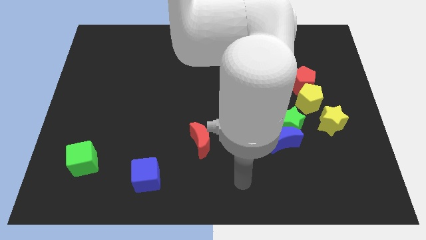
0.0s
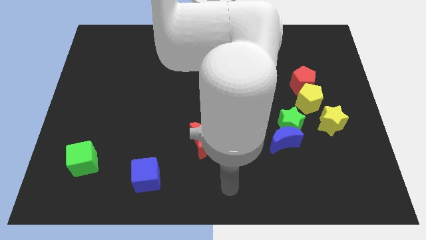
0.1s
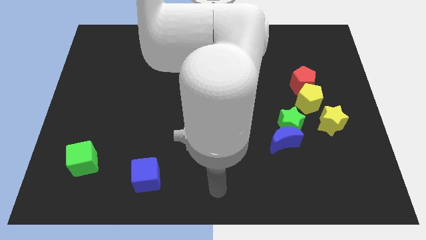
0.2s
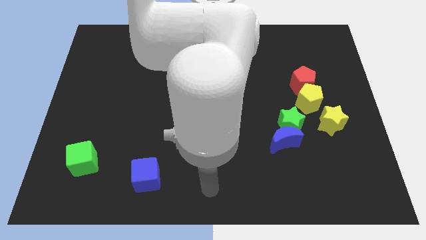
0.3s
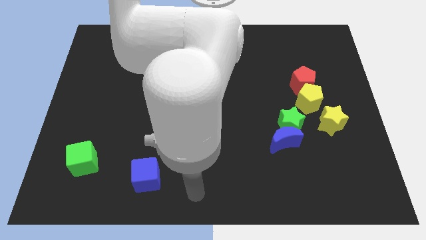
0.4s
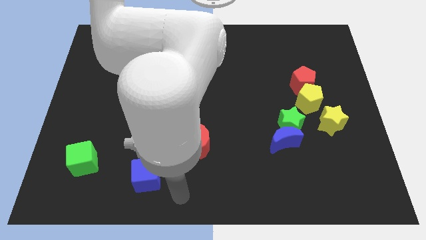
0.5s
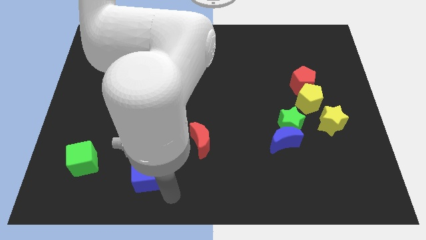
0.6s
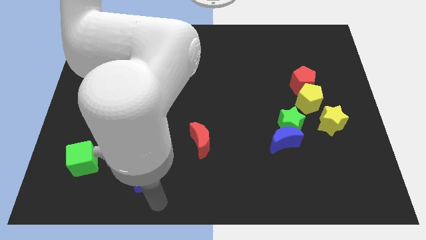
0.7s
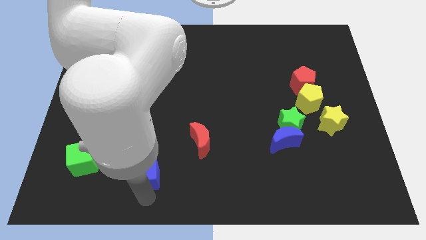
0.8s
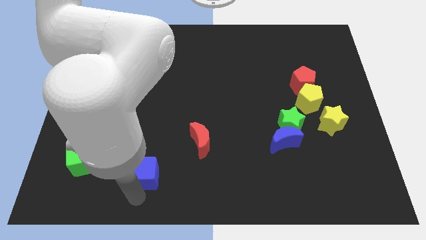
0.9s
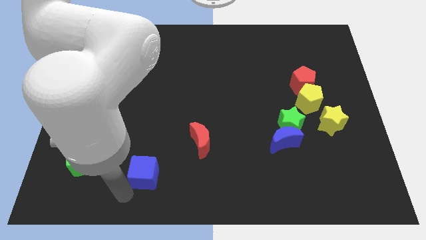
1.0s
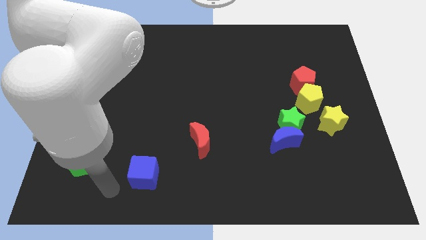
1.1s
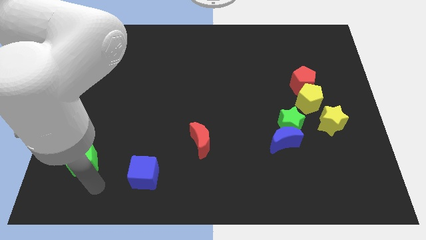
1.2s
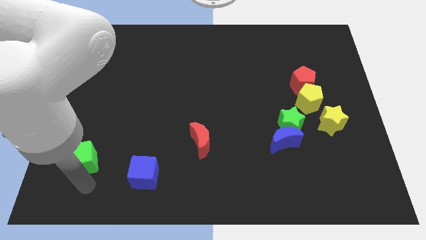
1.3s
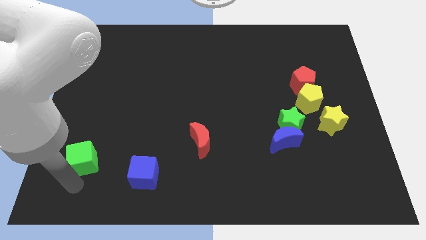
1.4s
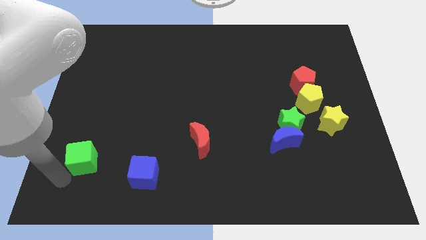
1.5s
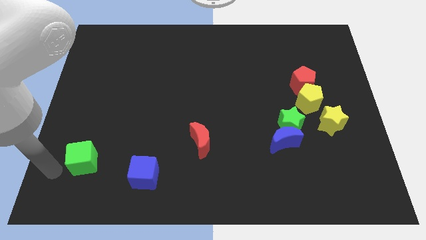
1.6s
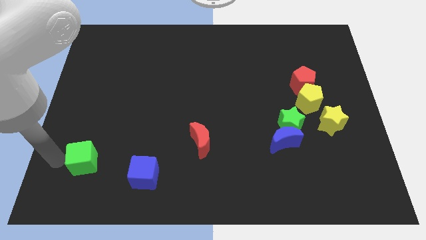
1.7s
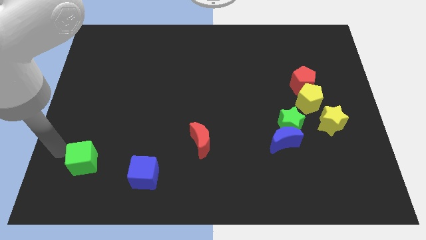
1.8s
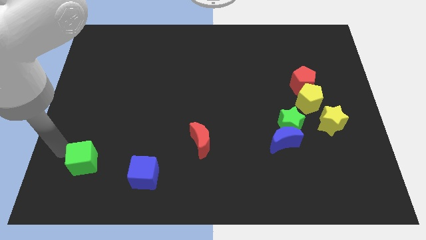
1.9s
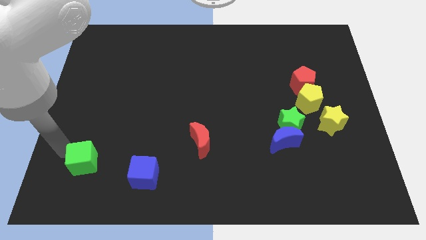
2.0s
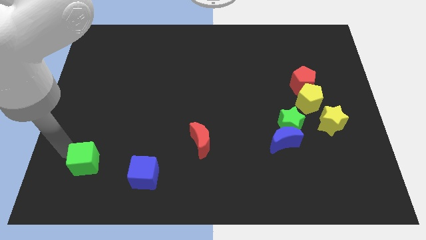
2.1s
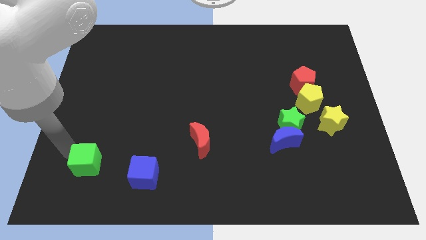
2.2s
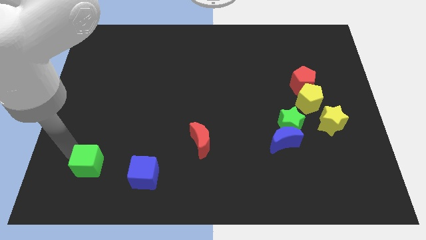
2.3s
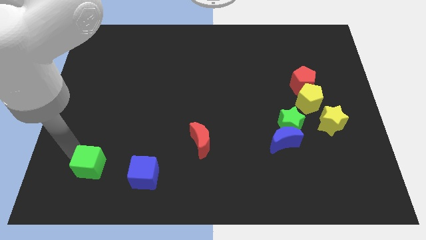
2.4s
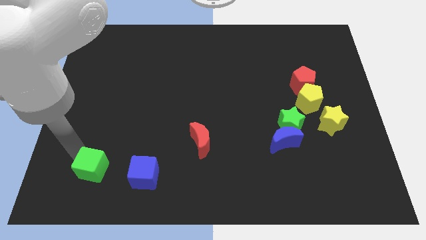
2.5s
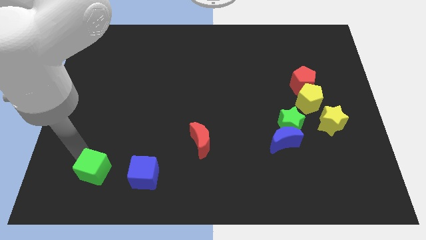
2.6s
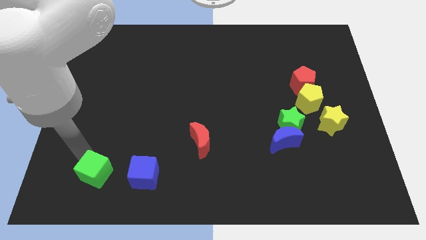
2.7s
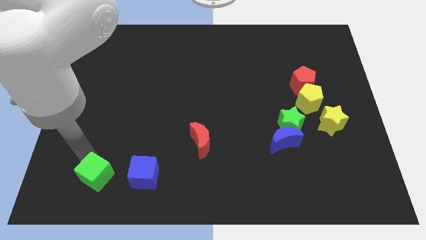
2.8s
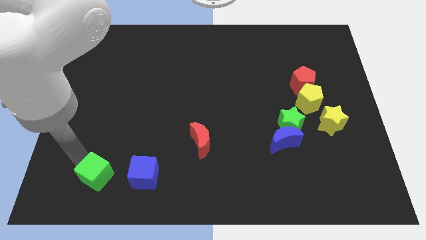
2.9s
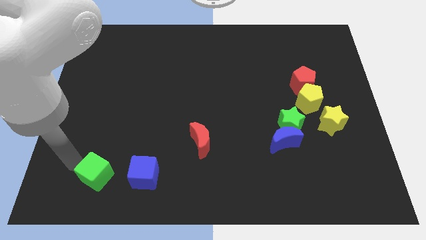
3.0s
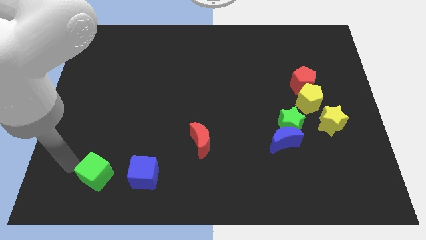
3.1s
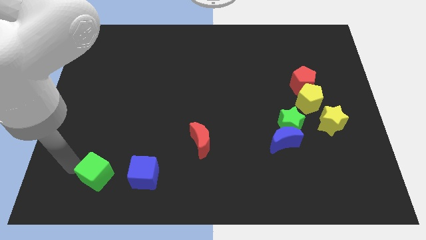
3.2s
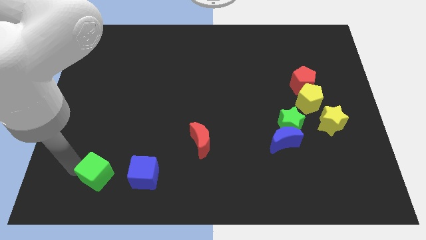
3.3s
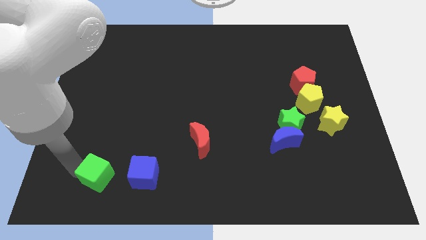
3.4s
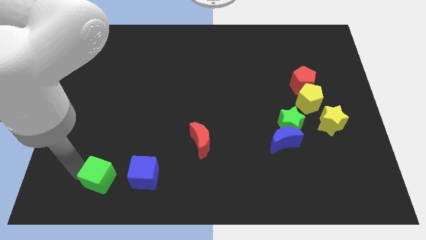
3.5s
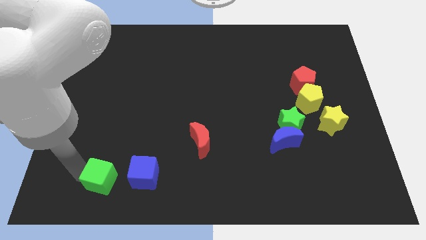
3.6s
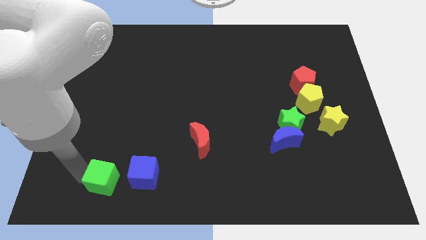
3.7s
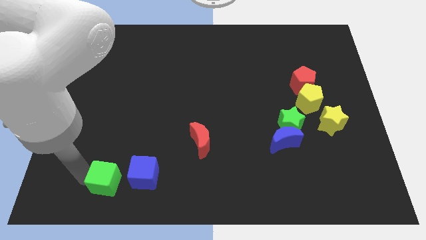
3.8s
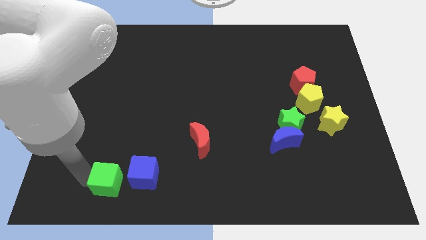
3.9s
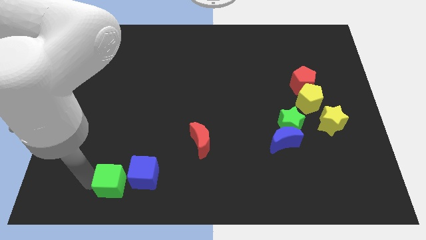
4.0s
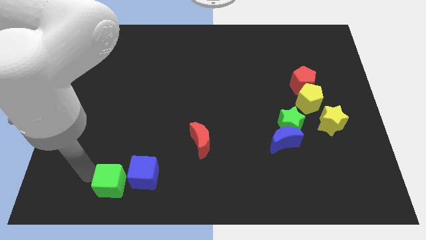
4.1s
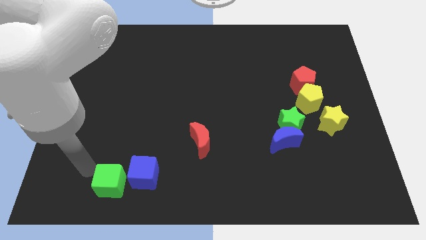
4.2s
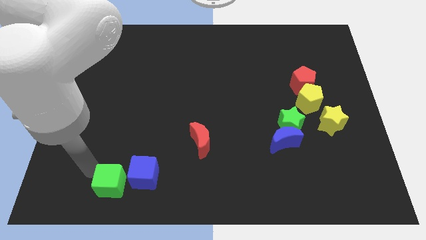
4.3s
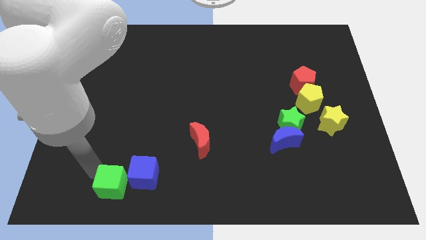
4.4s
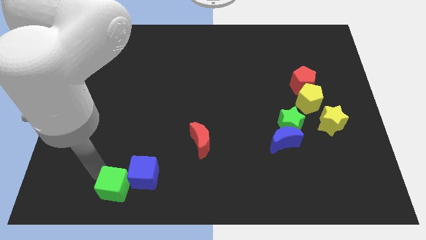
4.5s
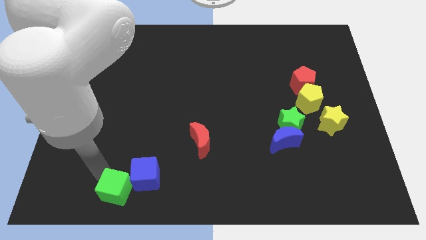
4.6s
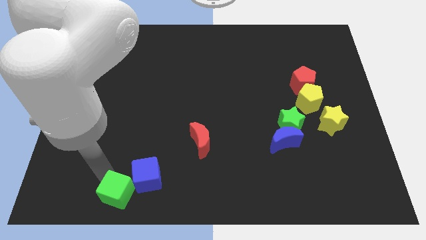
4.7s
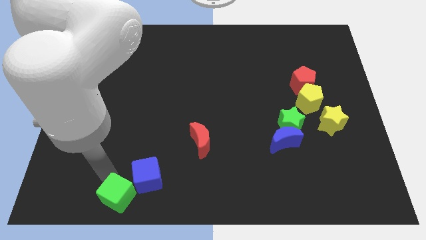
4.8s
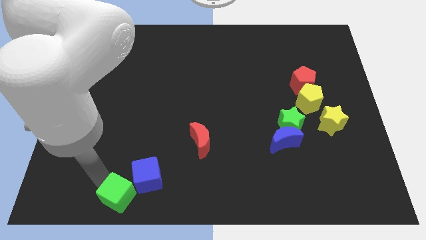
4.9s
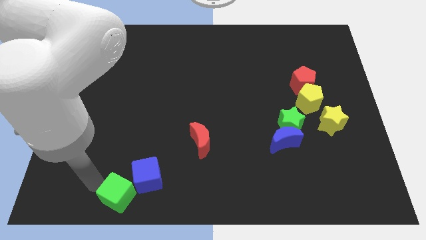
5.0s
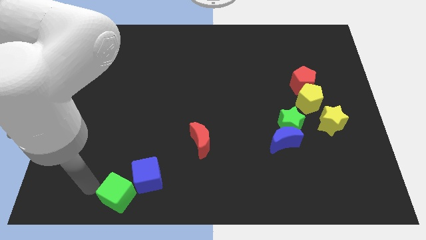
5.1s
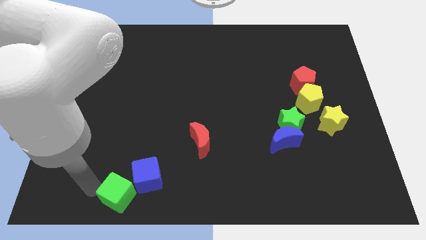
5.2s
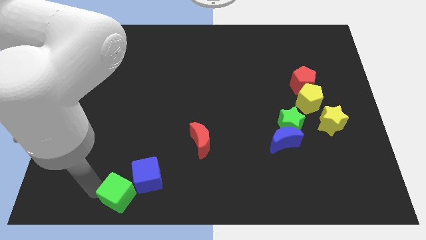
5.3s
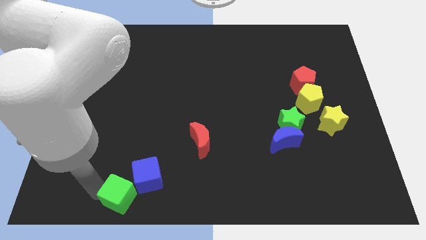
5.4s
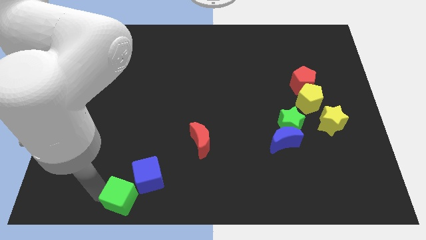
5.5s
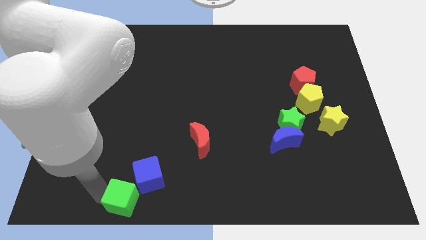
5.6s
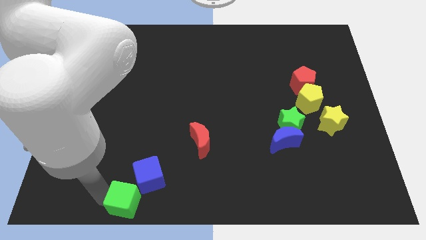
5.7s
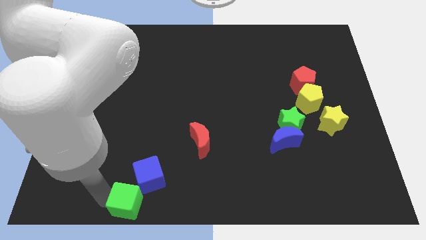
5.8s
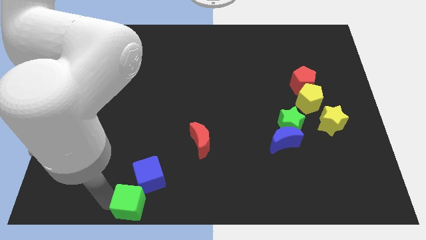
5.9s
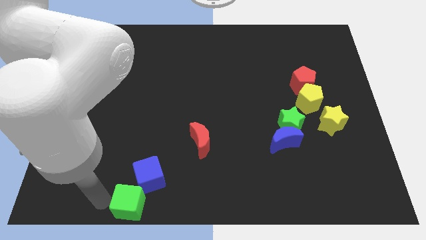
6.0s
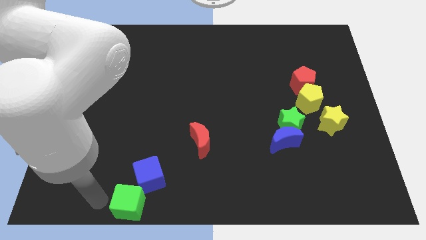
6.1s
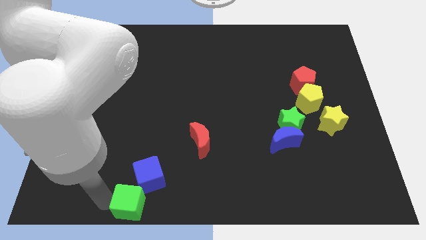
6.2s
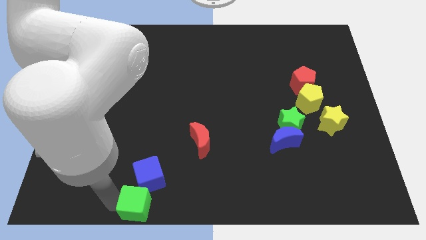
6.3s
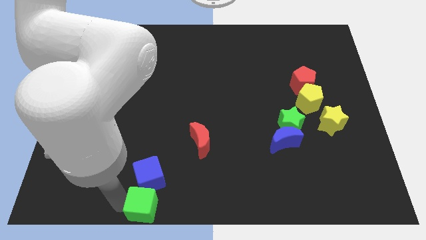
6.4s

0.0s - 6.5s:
put the green cube to the bottom side
